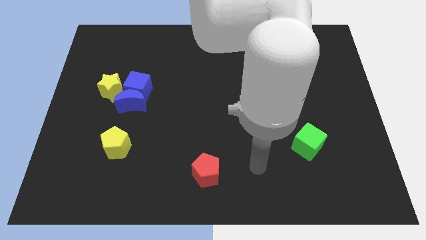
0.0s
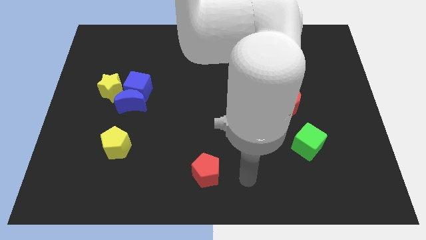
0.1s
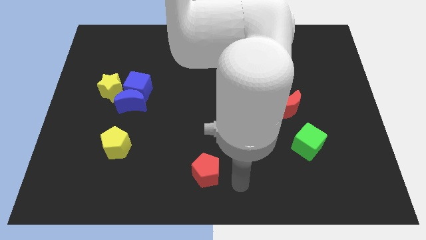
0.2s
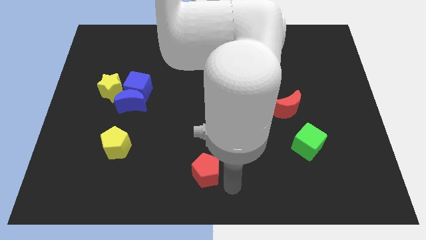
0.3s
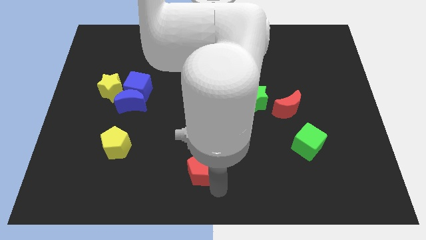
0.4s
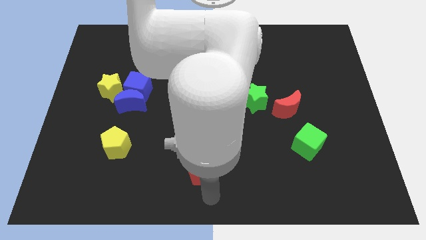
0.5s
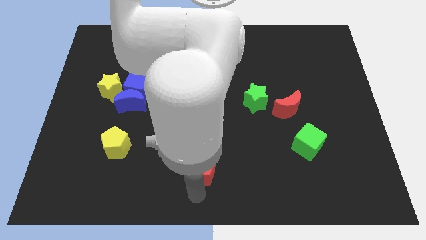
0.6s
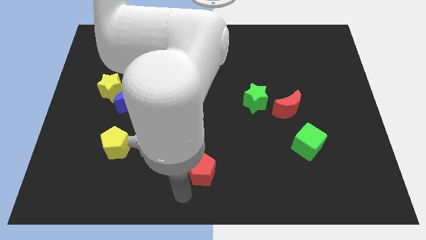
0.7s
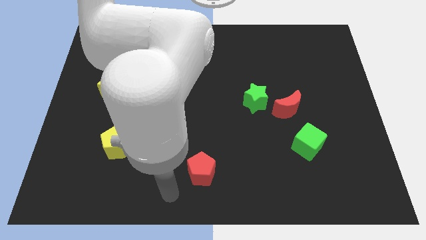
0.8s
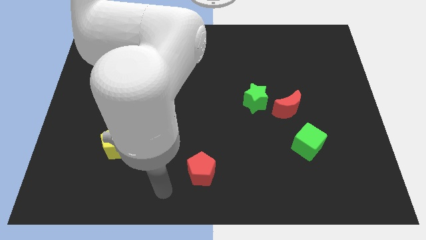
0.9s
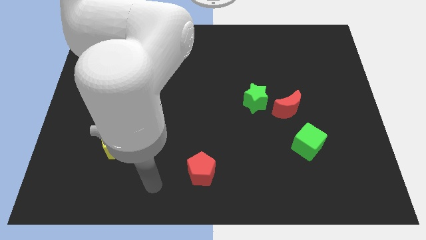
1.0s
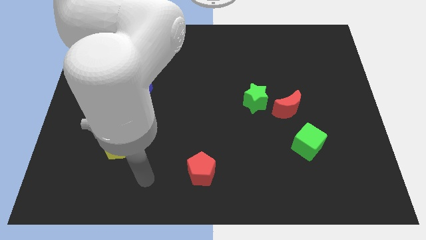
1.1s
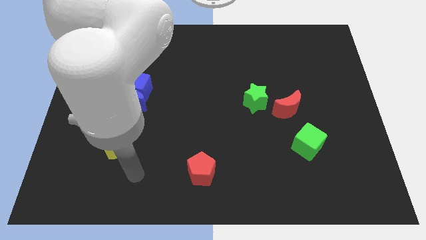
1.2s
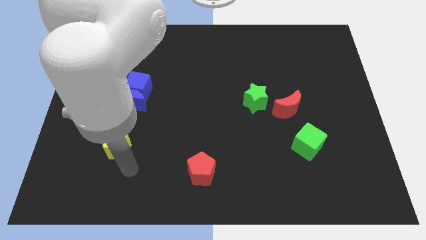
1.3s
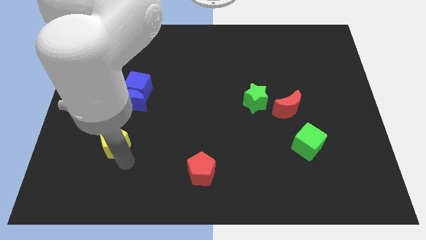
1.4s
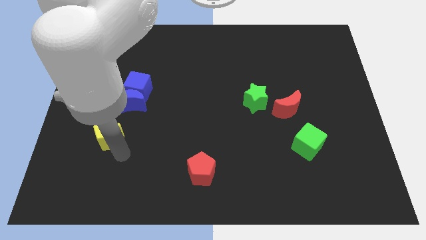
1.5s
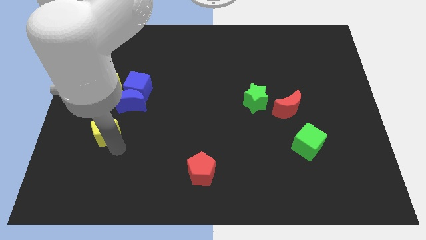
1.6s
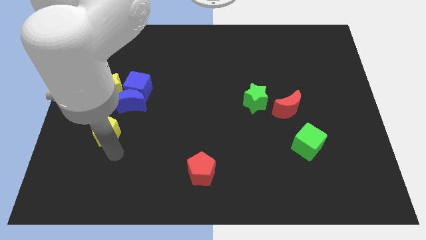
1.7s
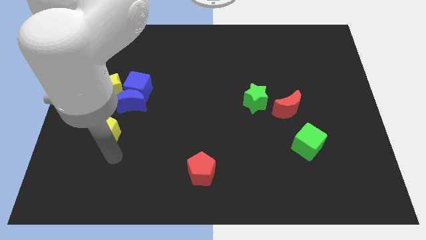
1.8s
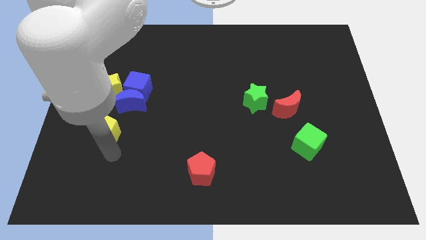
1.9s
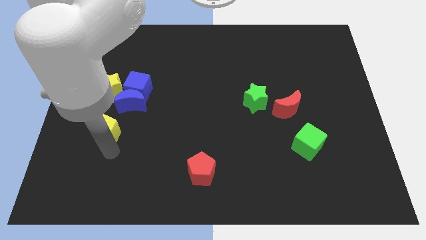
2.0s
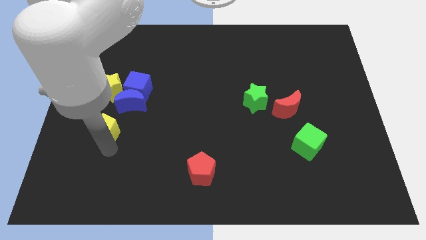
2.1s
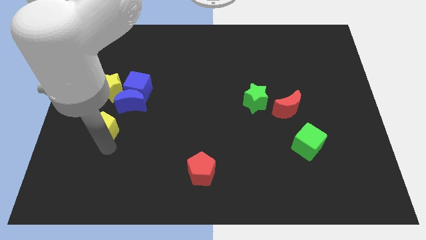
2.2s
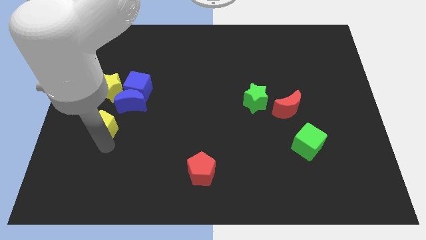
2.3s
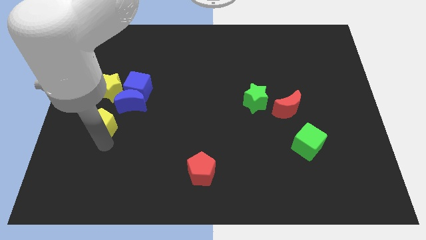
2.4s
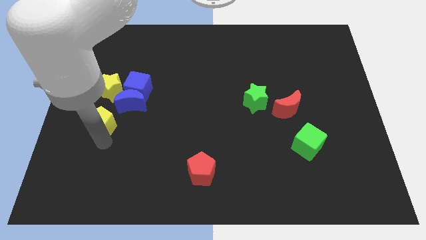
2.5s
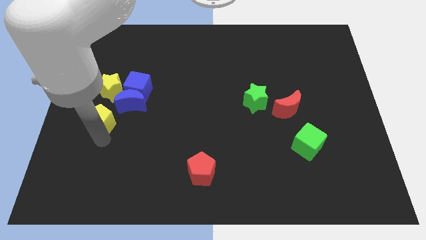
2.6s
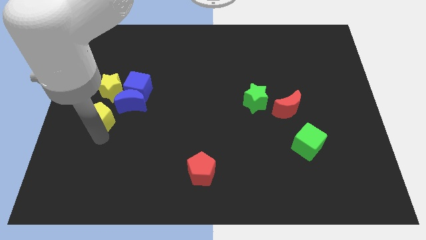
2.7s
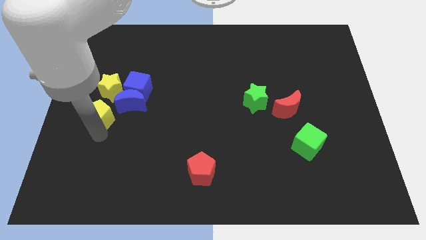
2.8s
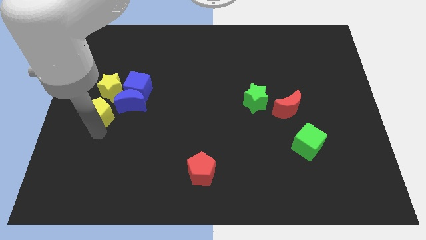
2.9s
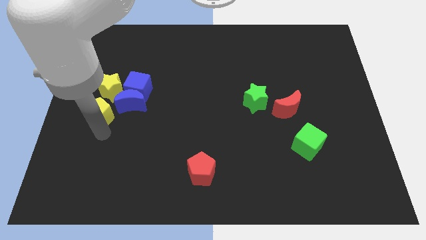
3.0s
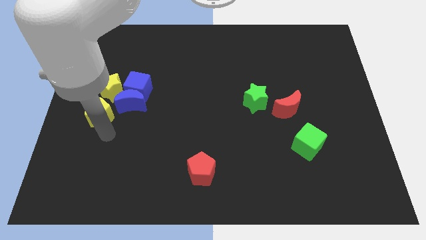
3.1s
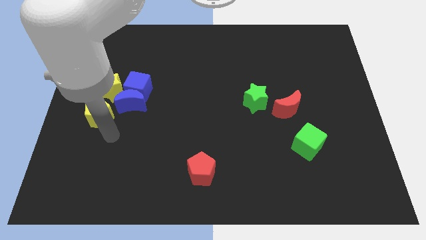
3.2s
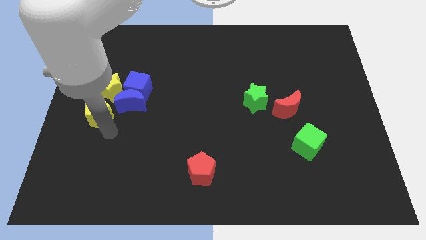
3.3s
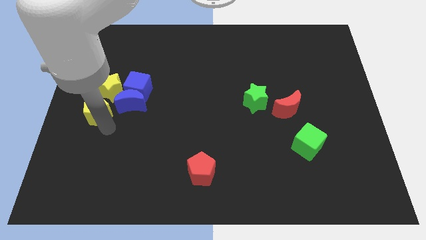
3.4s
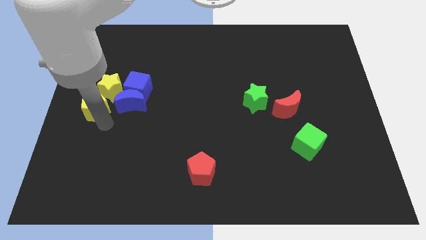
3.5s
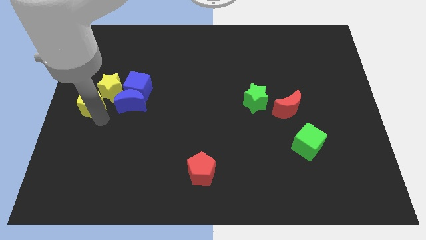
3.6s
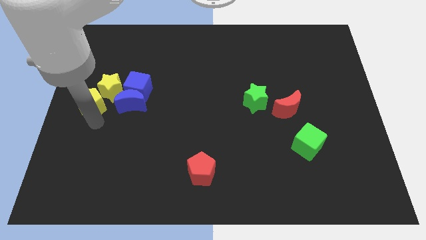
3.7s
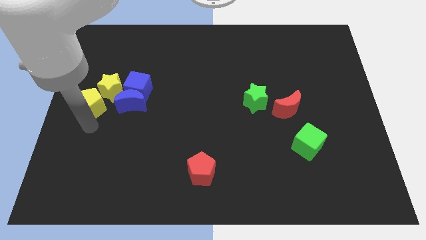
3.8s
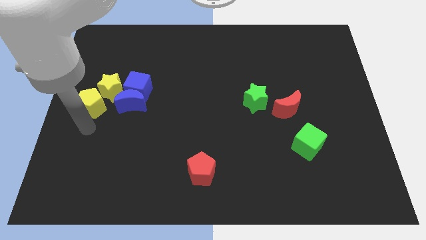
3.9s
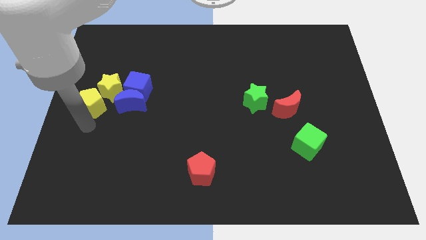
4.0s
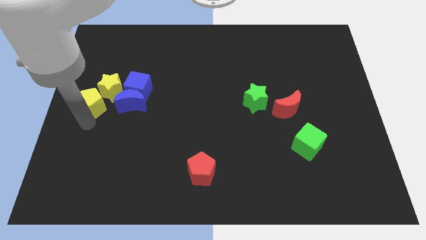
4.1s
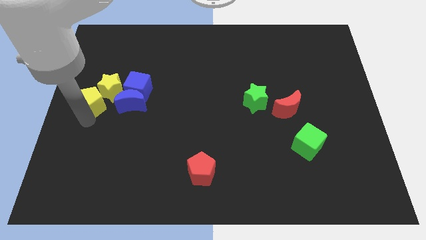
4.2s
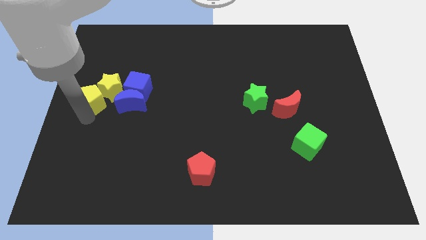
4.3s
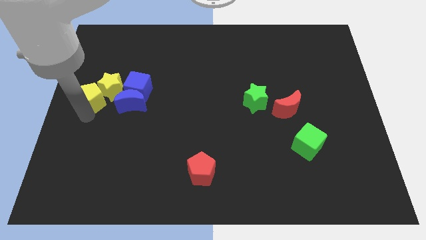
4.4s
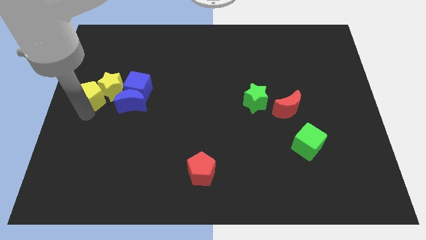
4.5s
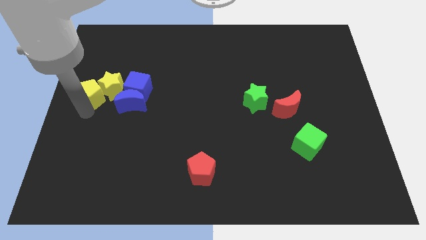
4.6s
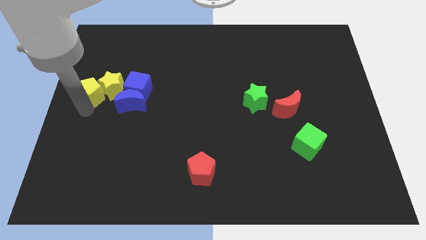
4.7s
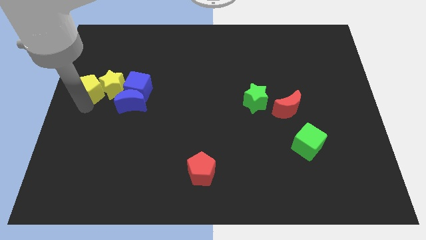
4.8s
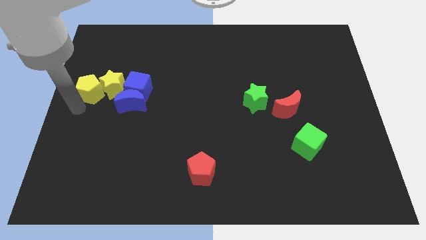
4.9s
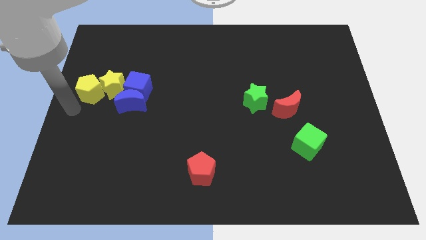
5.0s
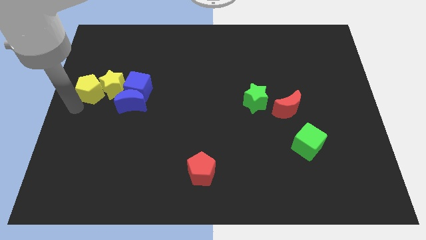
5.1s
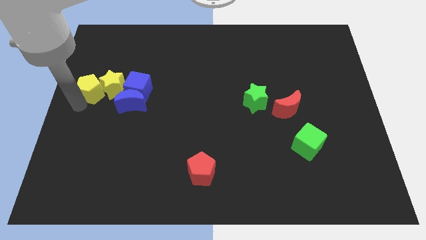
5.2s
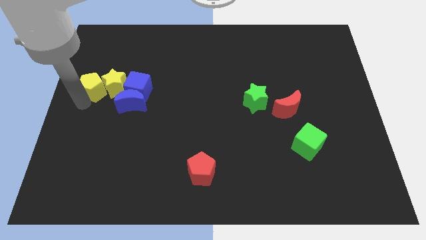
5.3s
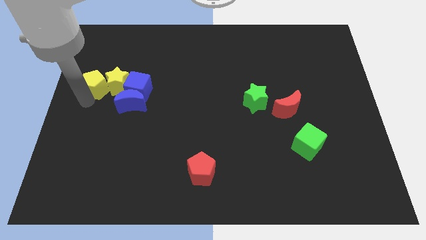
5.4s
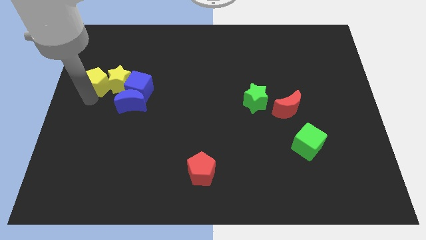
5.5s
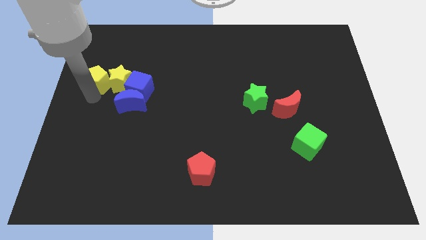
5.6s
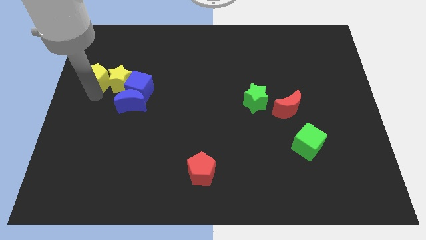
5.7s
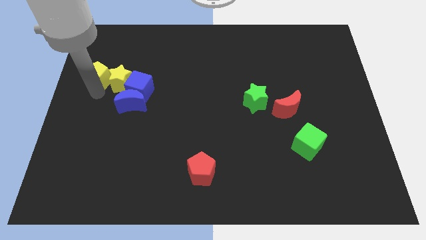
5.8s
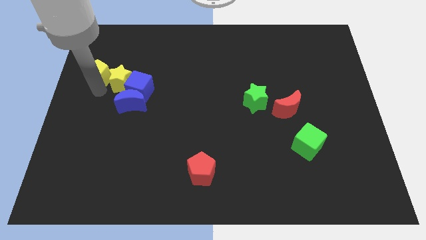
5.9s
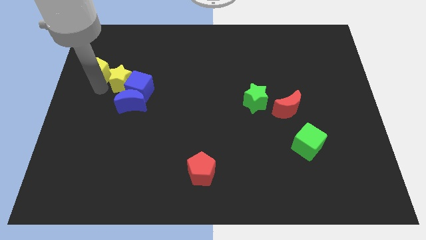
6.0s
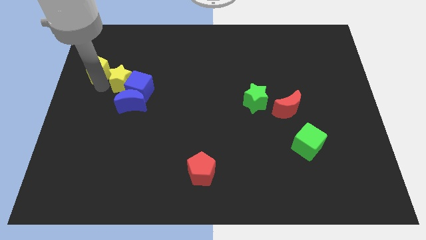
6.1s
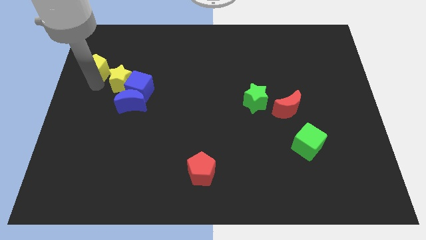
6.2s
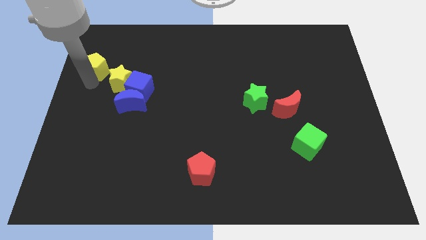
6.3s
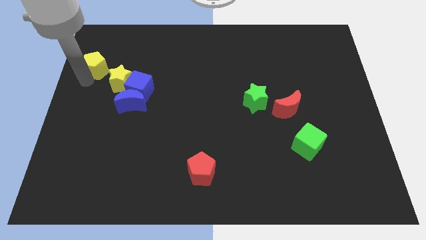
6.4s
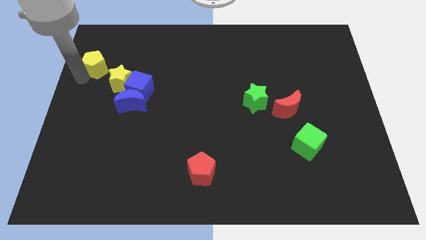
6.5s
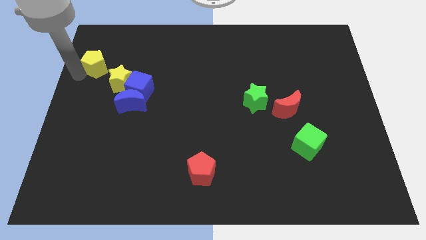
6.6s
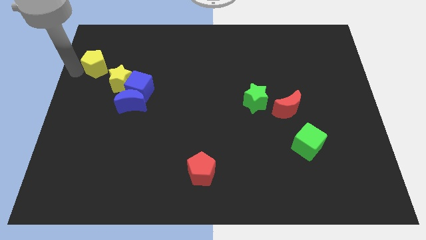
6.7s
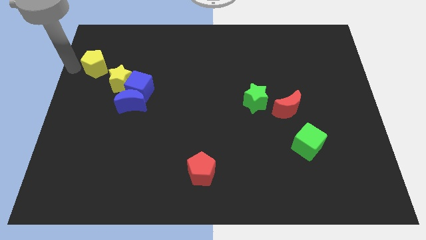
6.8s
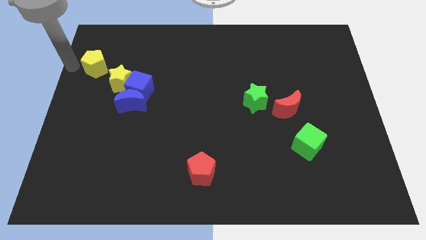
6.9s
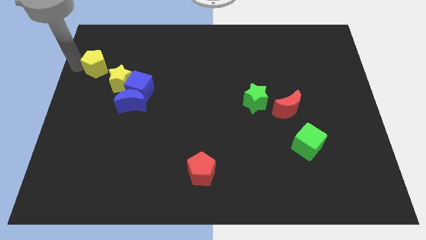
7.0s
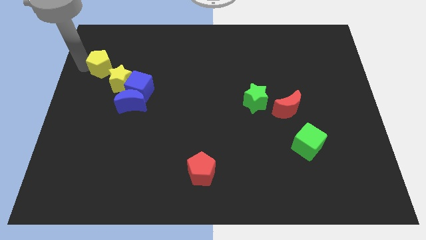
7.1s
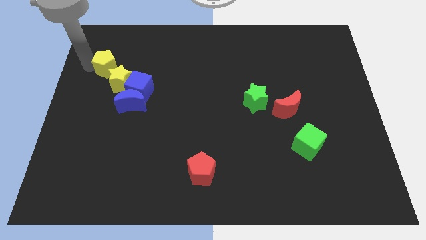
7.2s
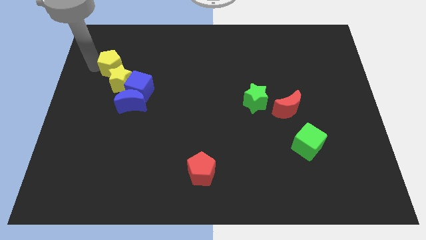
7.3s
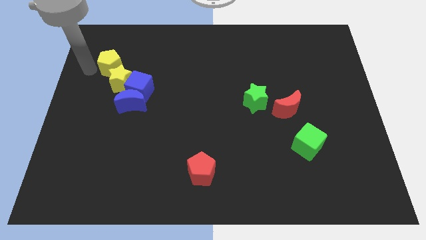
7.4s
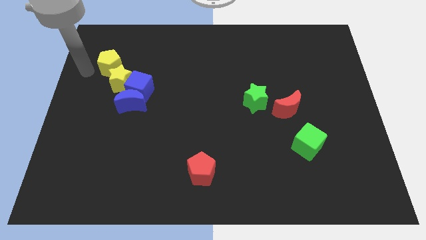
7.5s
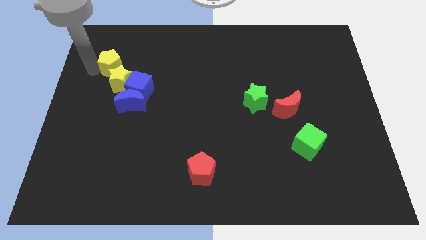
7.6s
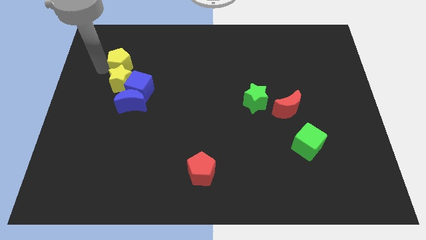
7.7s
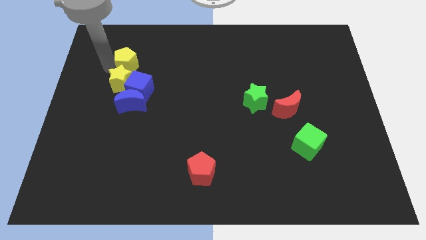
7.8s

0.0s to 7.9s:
put the yellow pentagon above the blue cube
